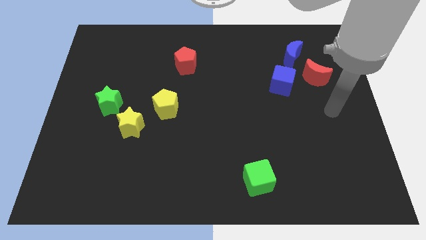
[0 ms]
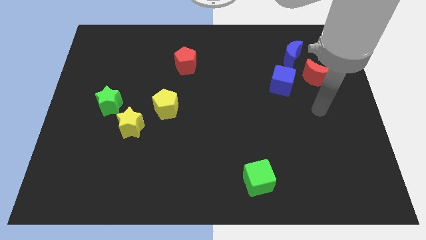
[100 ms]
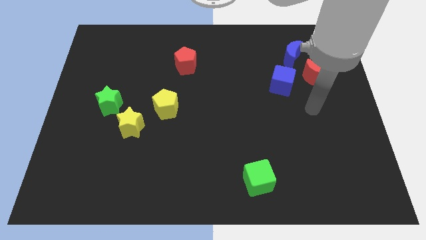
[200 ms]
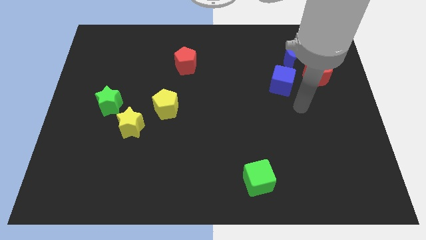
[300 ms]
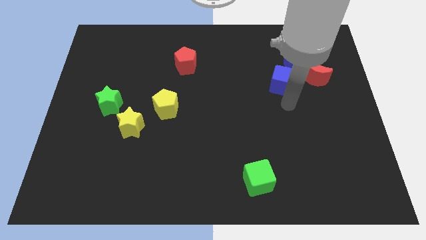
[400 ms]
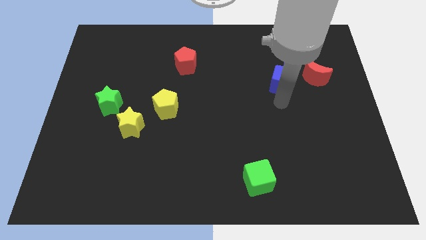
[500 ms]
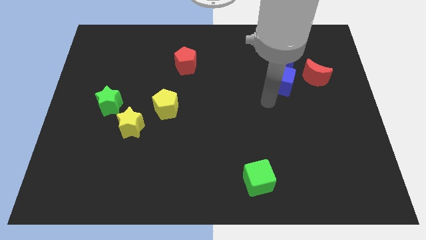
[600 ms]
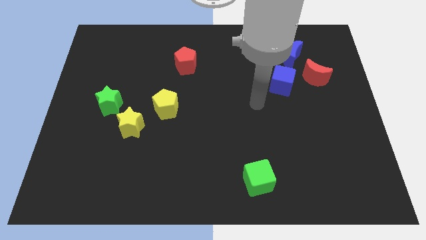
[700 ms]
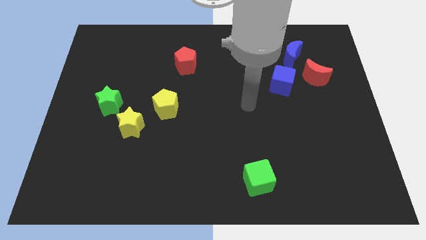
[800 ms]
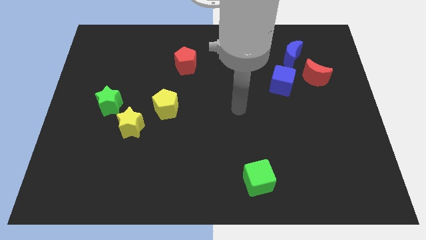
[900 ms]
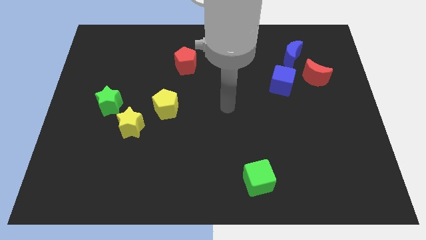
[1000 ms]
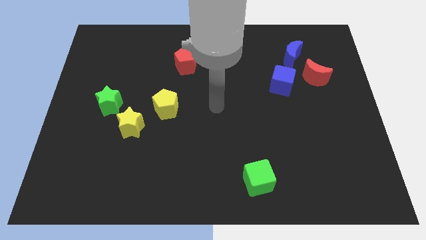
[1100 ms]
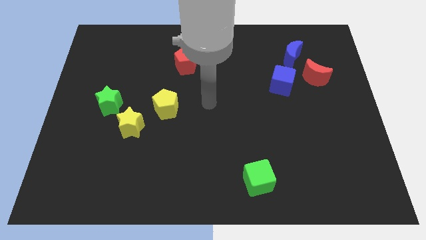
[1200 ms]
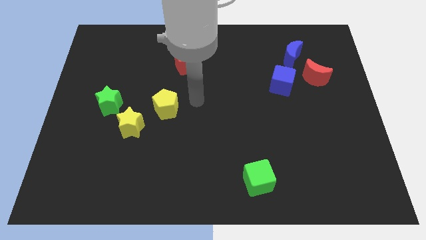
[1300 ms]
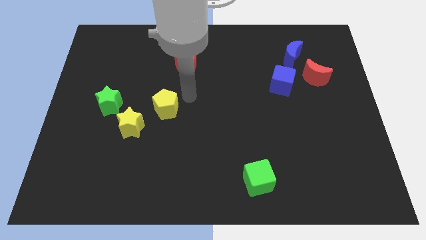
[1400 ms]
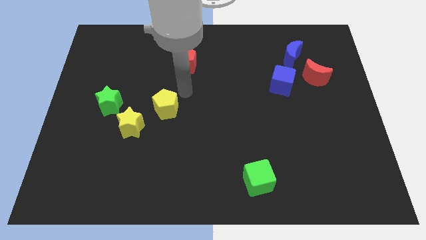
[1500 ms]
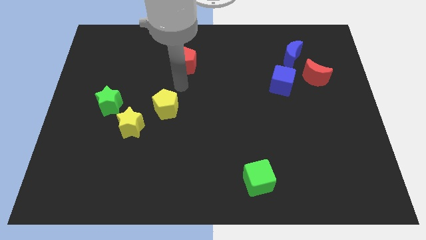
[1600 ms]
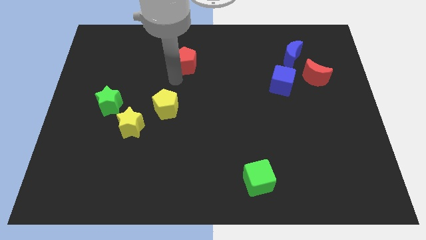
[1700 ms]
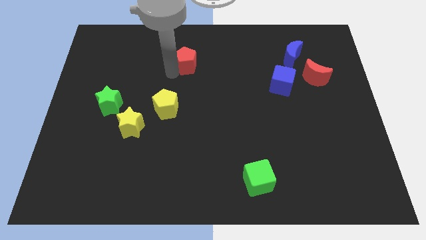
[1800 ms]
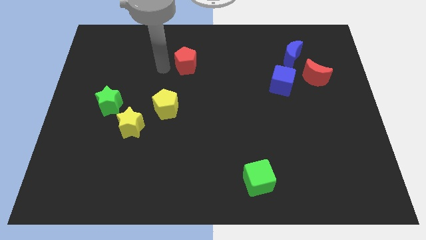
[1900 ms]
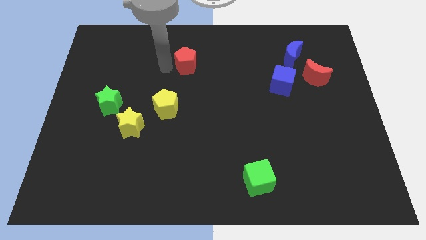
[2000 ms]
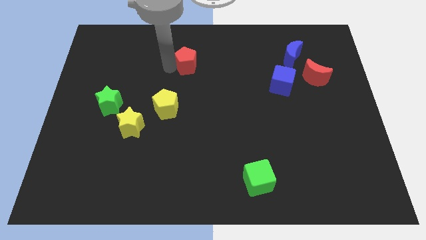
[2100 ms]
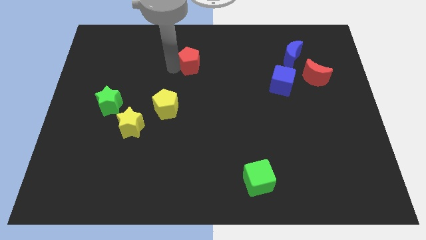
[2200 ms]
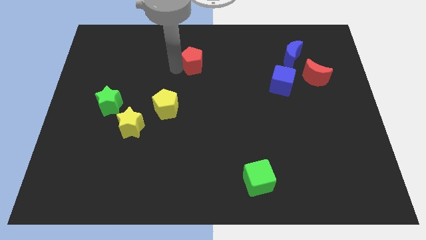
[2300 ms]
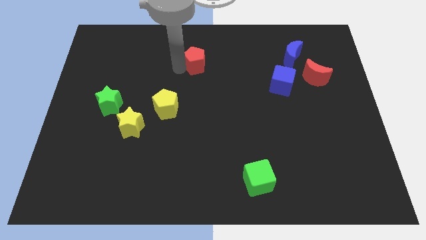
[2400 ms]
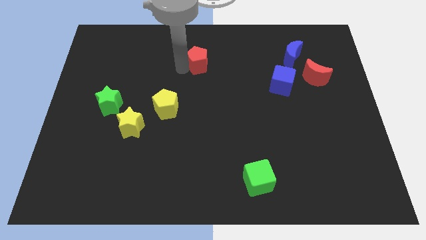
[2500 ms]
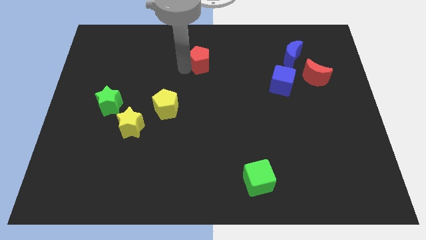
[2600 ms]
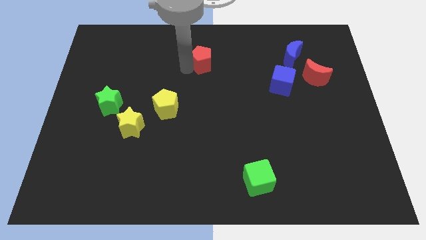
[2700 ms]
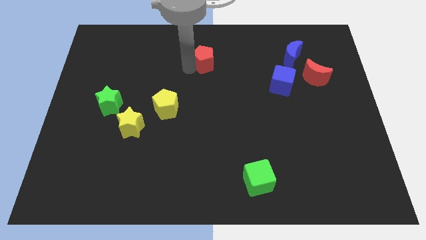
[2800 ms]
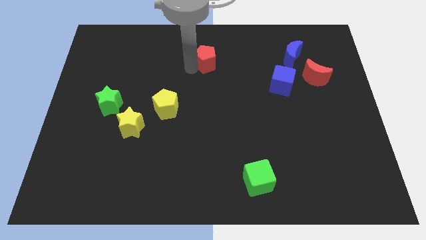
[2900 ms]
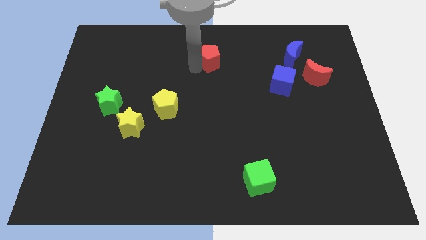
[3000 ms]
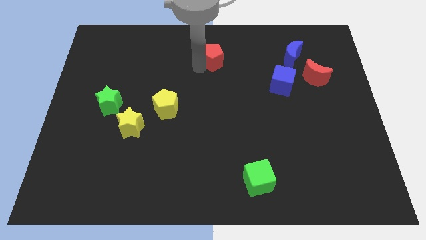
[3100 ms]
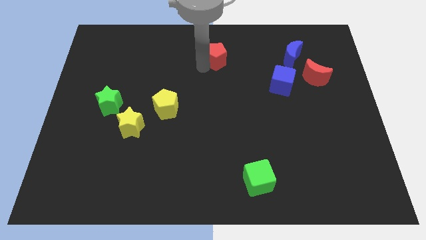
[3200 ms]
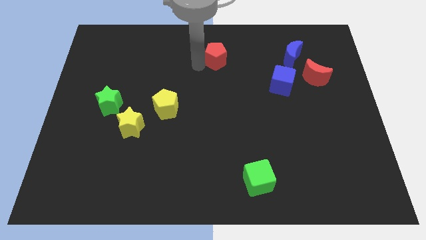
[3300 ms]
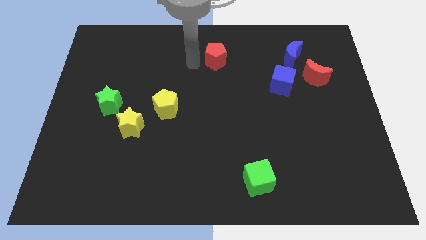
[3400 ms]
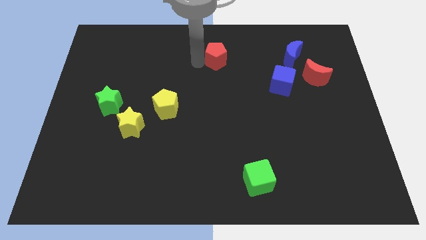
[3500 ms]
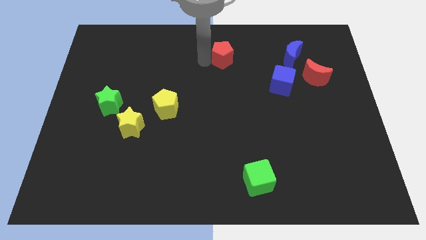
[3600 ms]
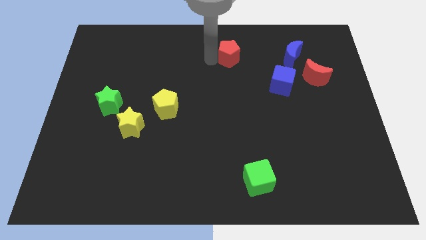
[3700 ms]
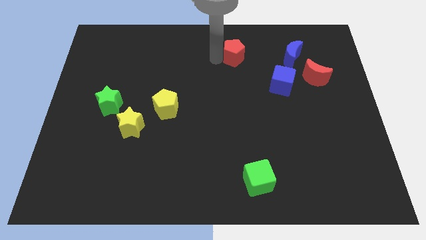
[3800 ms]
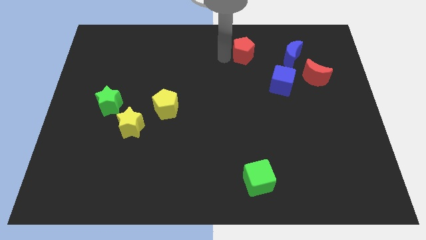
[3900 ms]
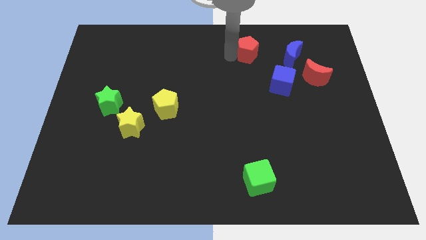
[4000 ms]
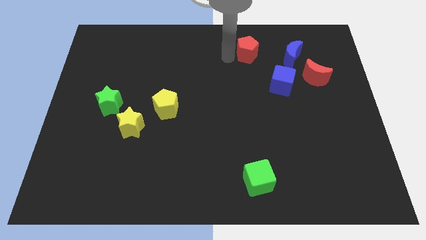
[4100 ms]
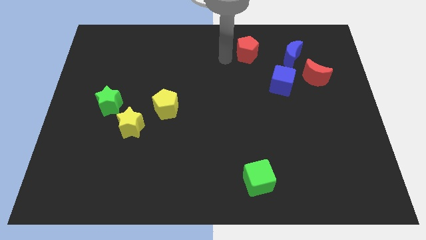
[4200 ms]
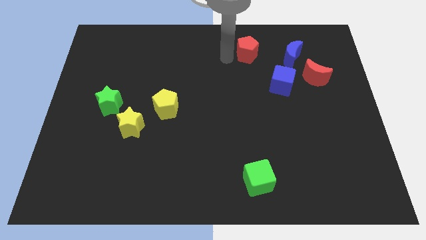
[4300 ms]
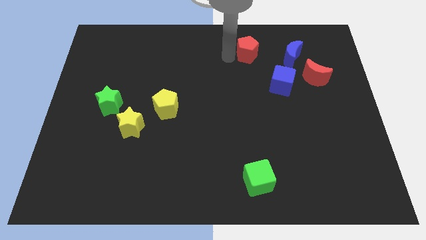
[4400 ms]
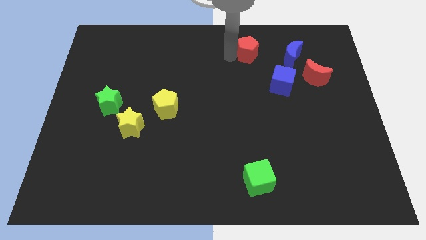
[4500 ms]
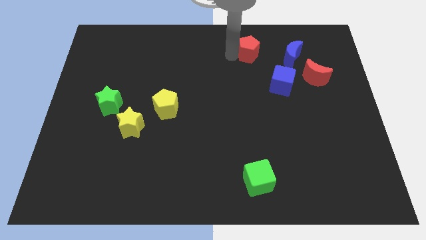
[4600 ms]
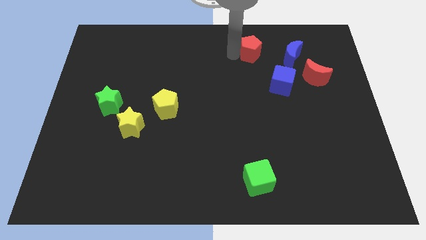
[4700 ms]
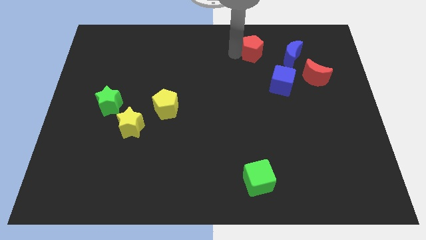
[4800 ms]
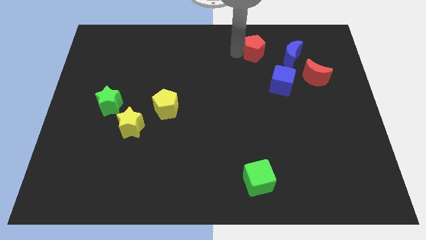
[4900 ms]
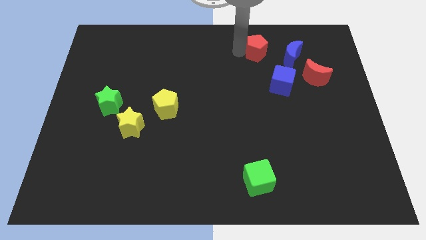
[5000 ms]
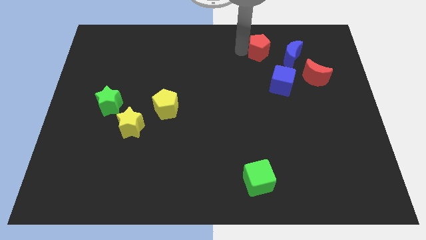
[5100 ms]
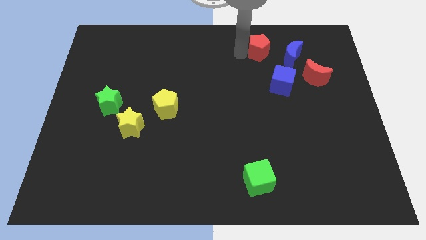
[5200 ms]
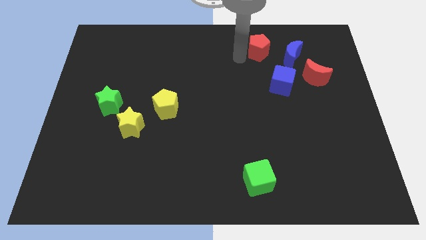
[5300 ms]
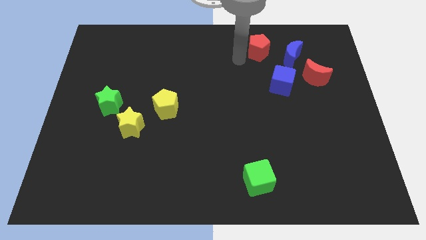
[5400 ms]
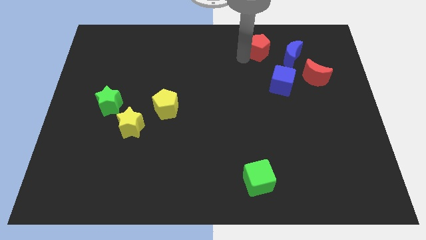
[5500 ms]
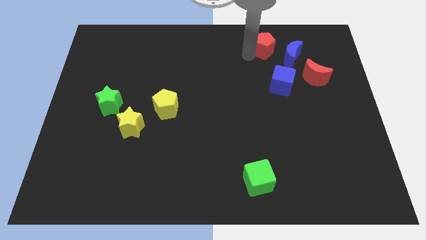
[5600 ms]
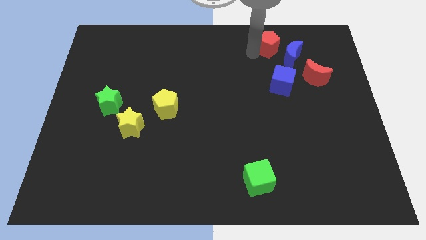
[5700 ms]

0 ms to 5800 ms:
slide the red pentagon right

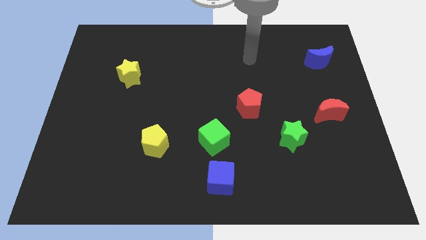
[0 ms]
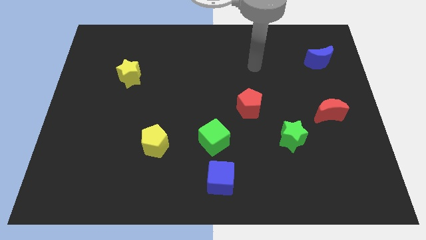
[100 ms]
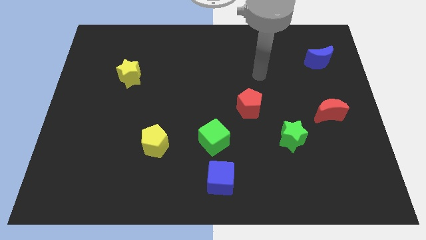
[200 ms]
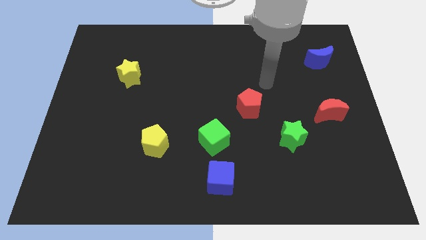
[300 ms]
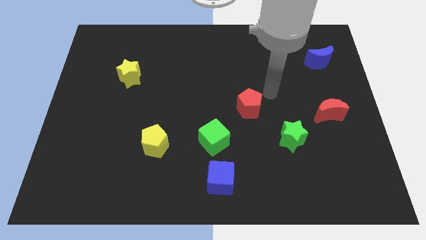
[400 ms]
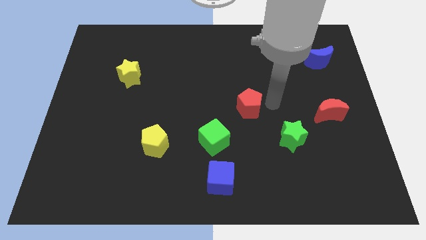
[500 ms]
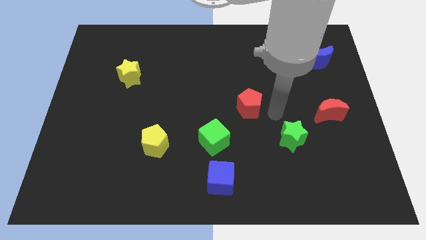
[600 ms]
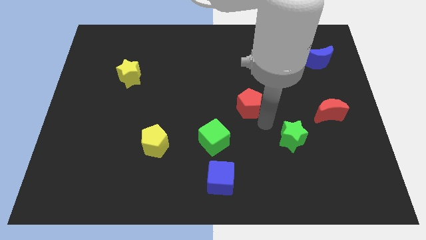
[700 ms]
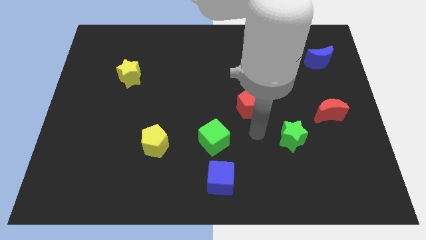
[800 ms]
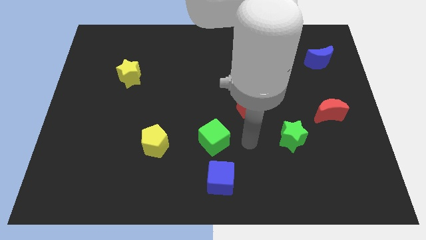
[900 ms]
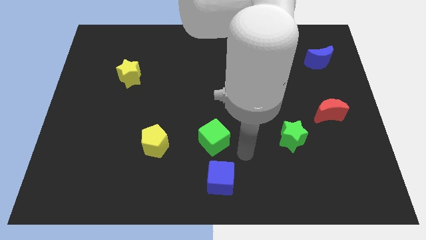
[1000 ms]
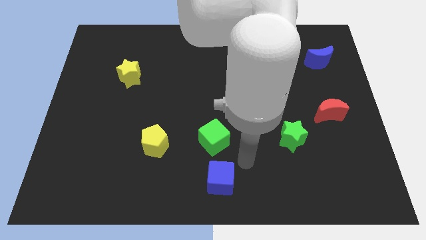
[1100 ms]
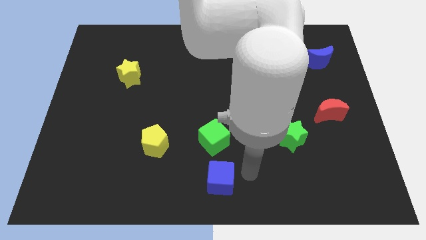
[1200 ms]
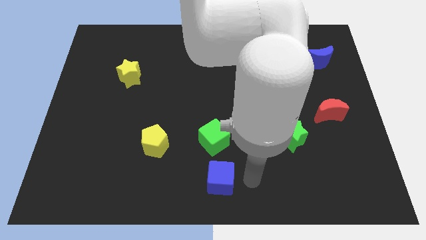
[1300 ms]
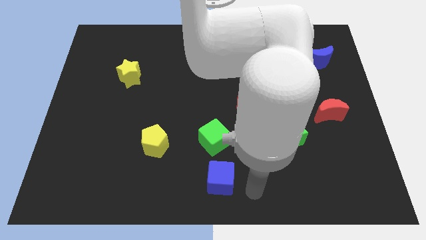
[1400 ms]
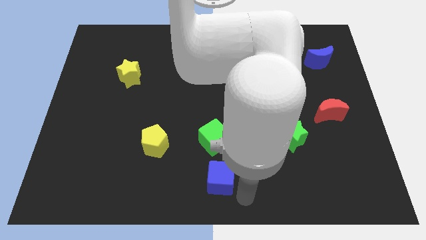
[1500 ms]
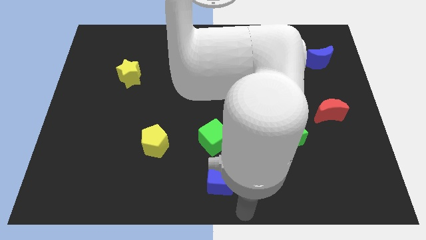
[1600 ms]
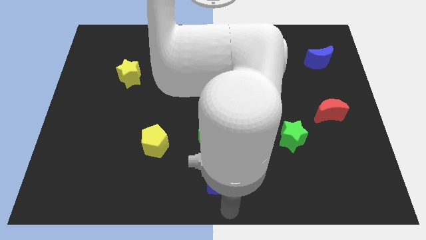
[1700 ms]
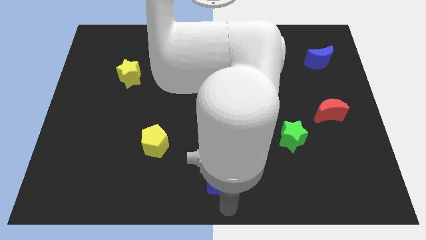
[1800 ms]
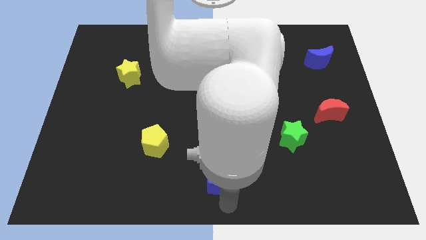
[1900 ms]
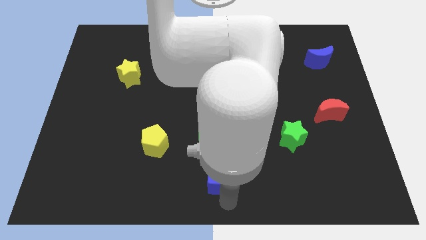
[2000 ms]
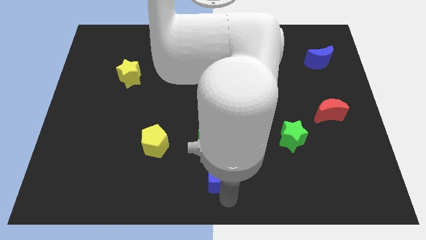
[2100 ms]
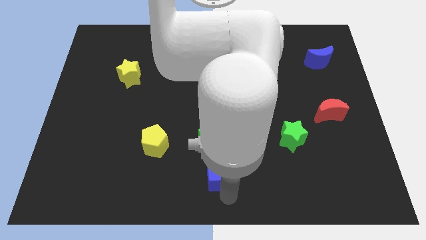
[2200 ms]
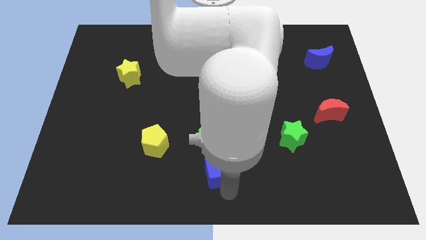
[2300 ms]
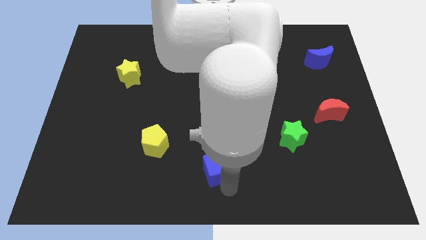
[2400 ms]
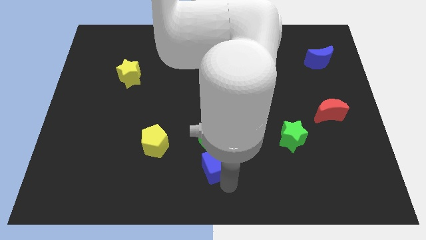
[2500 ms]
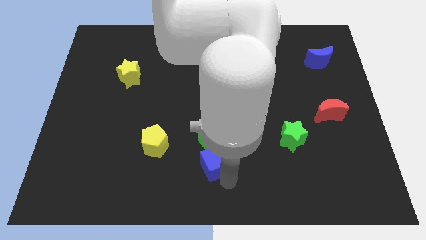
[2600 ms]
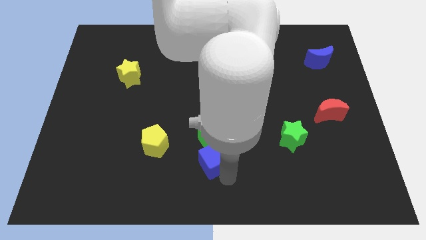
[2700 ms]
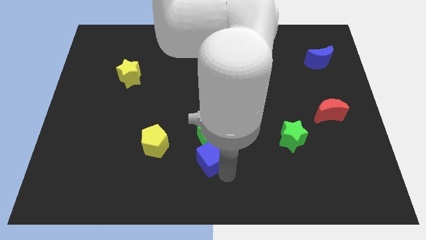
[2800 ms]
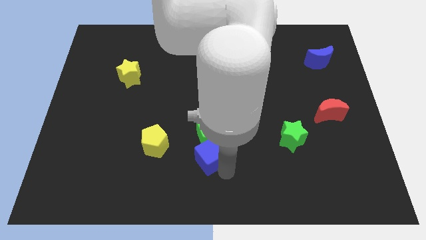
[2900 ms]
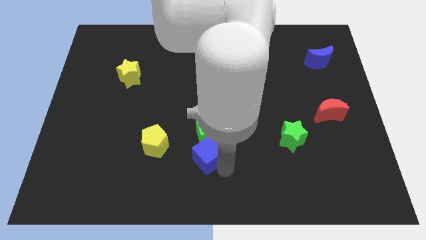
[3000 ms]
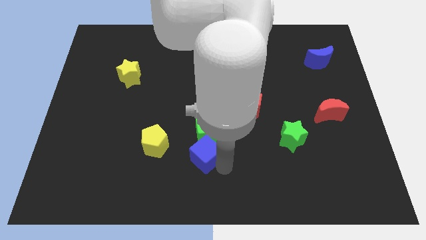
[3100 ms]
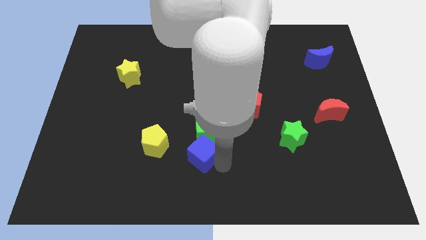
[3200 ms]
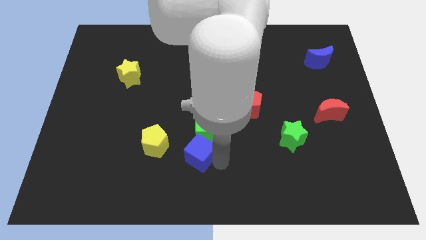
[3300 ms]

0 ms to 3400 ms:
slightly push the blue cube diagonally up and to the left
